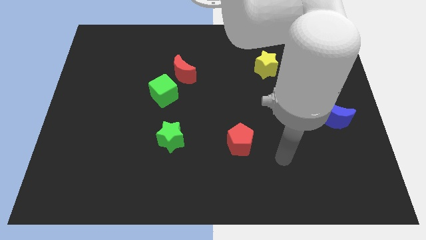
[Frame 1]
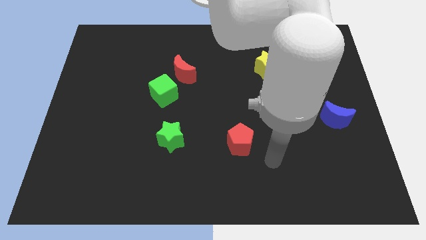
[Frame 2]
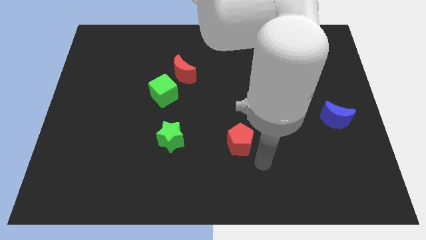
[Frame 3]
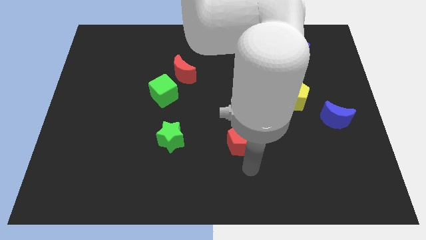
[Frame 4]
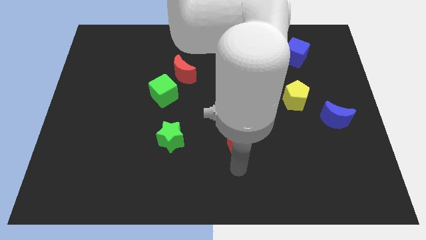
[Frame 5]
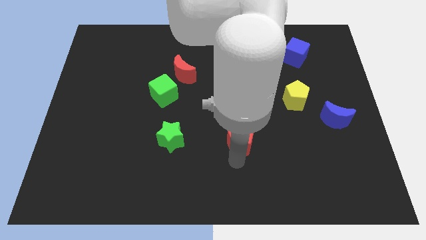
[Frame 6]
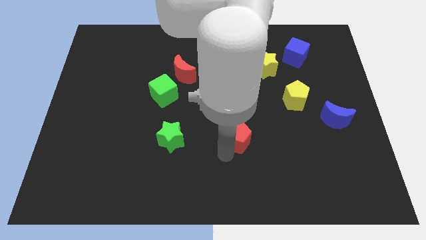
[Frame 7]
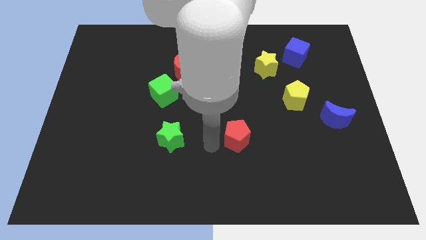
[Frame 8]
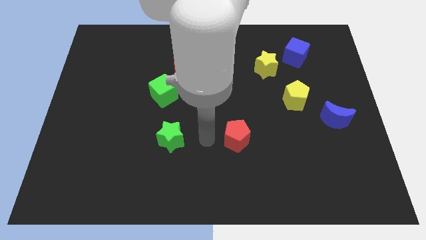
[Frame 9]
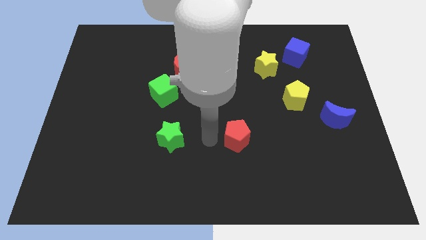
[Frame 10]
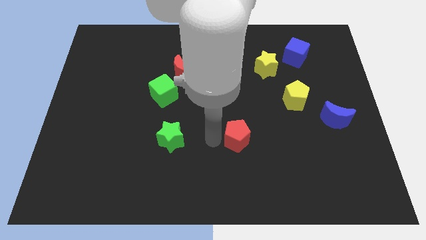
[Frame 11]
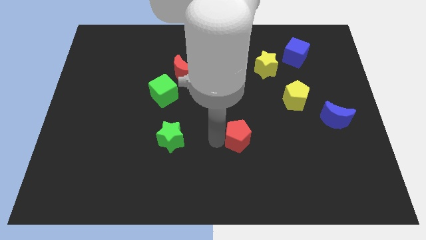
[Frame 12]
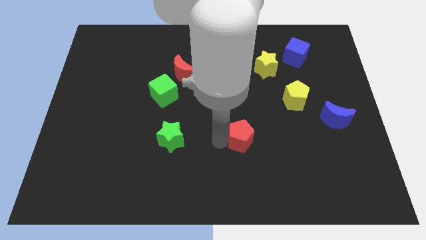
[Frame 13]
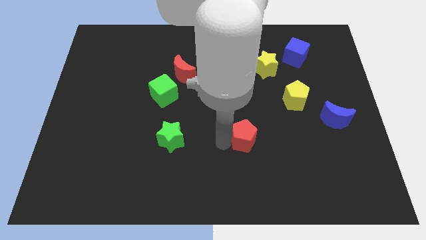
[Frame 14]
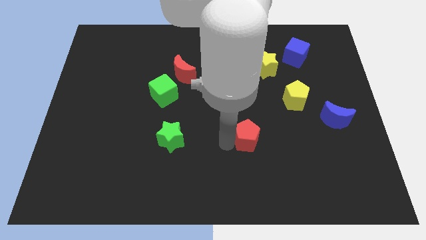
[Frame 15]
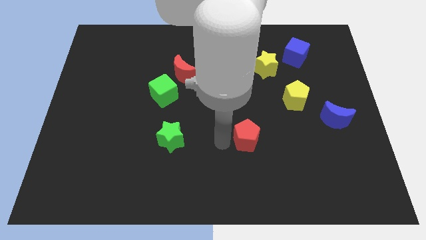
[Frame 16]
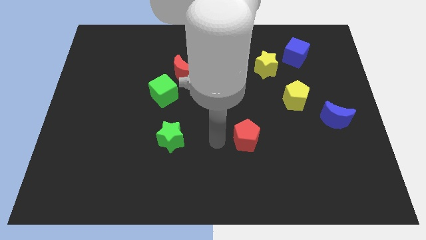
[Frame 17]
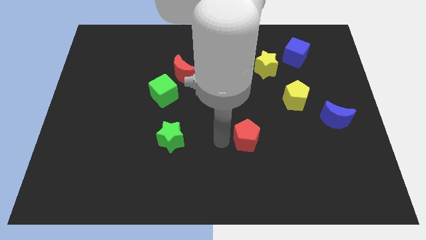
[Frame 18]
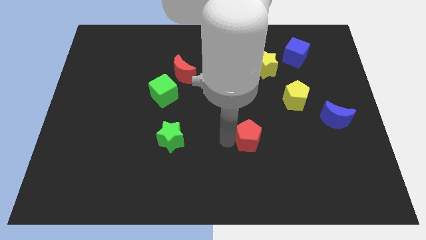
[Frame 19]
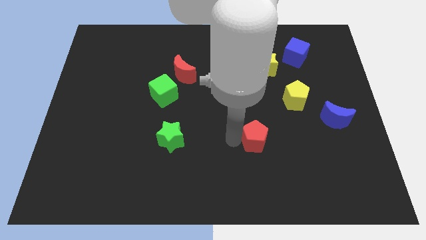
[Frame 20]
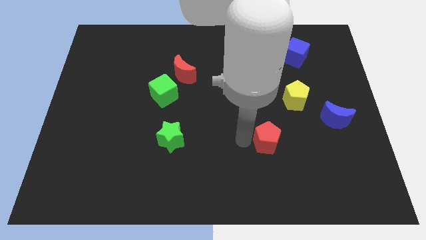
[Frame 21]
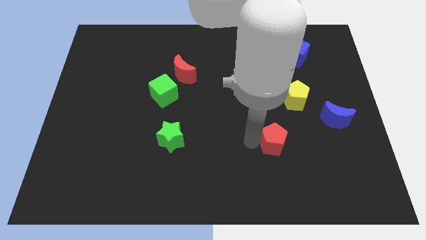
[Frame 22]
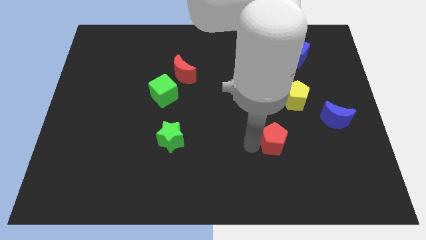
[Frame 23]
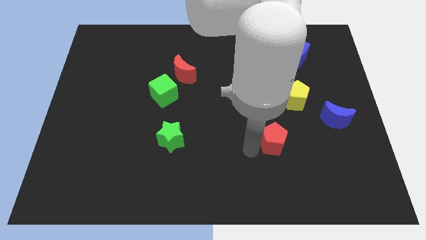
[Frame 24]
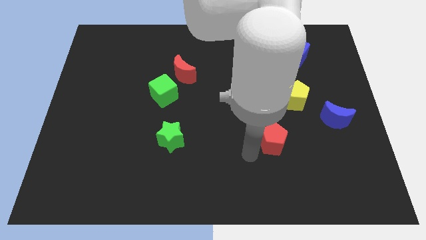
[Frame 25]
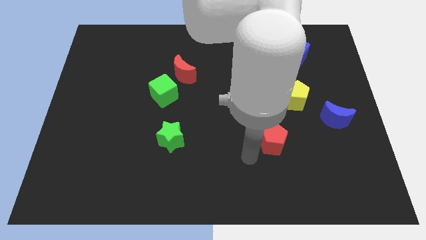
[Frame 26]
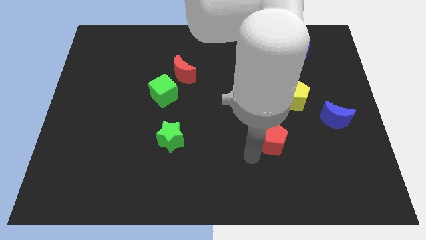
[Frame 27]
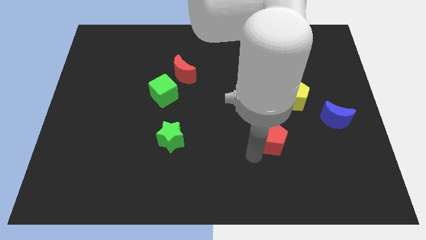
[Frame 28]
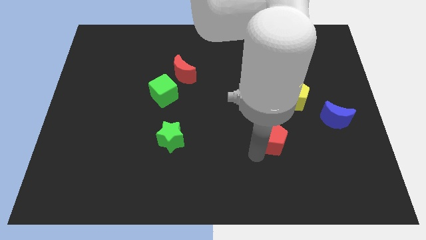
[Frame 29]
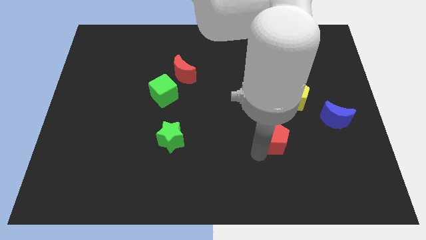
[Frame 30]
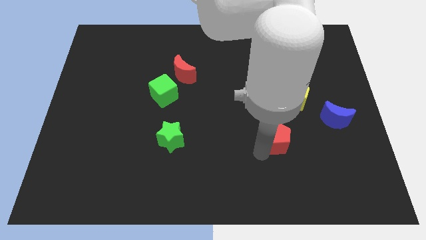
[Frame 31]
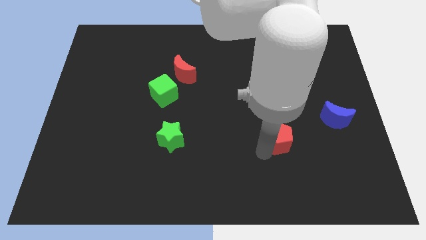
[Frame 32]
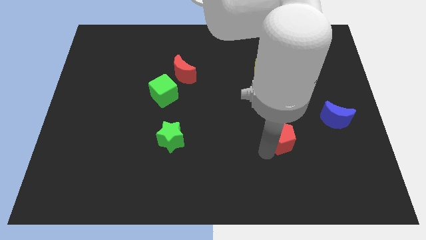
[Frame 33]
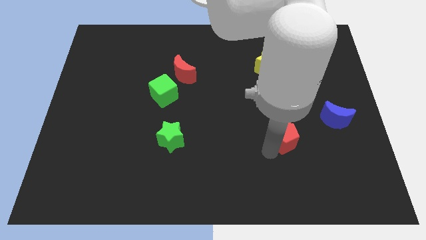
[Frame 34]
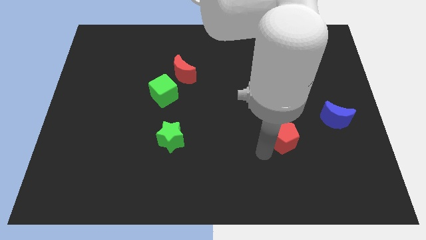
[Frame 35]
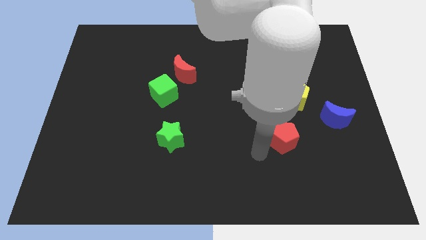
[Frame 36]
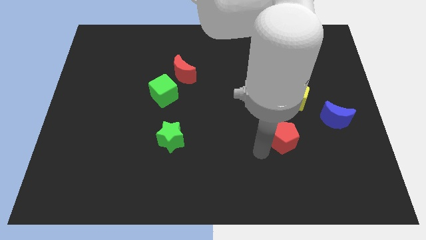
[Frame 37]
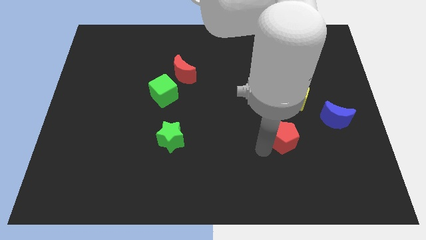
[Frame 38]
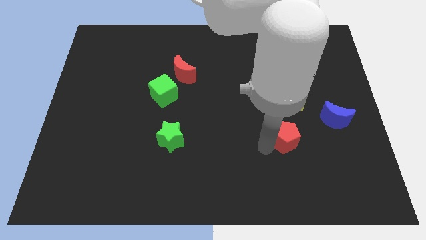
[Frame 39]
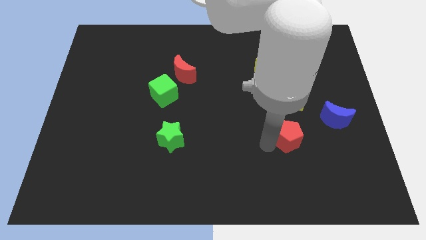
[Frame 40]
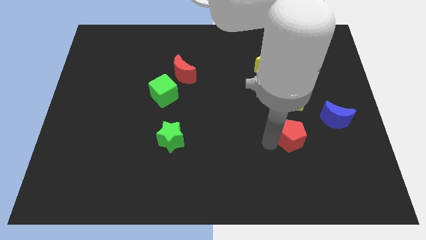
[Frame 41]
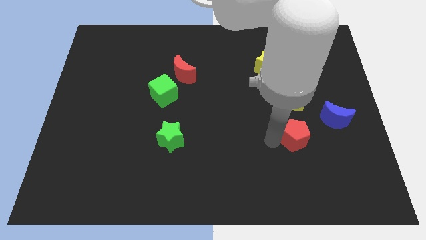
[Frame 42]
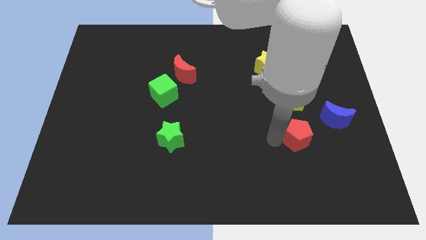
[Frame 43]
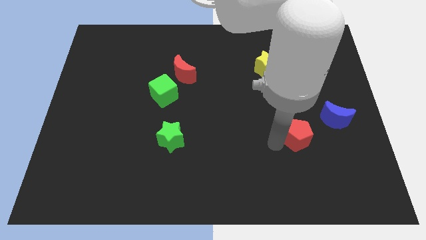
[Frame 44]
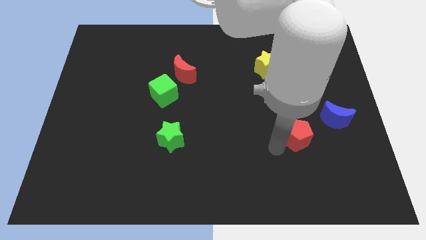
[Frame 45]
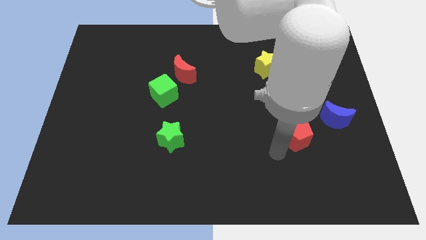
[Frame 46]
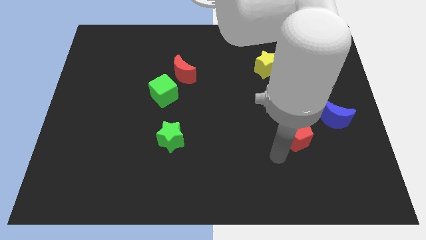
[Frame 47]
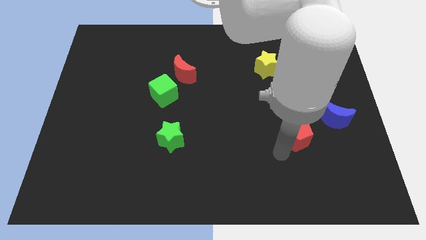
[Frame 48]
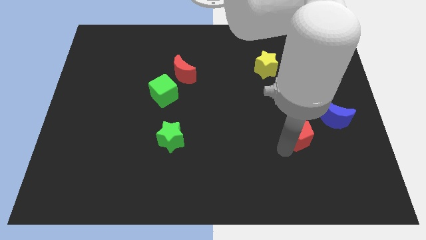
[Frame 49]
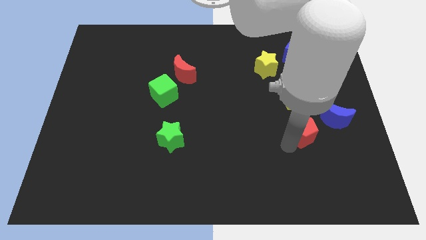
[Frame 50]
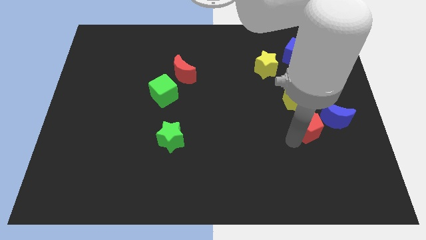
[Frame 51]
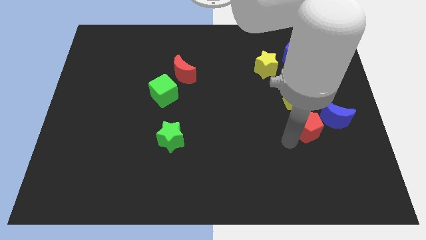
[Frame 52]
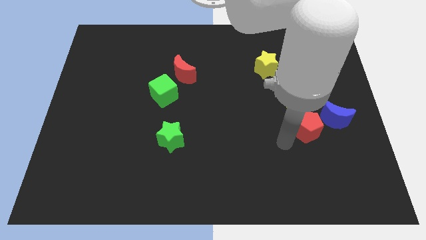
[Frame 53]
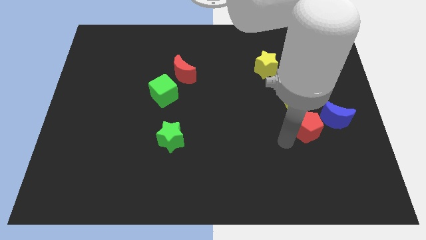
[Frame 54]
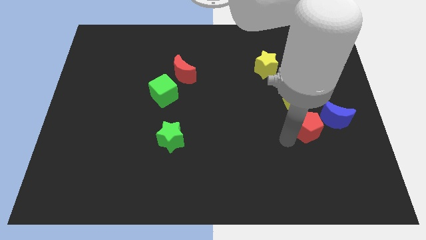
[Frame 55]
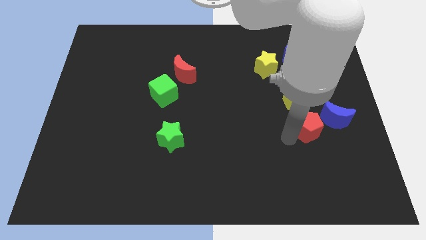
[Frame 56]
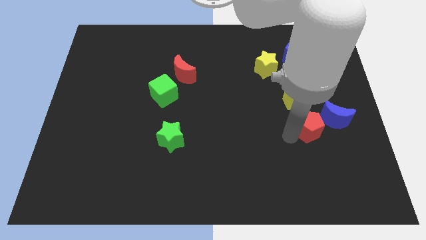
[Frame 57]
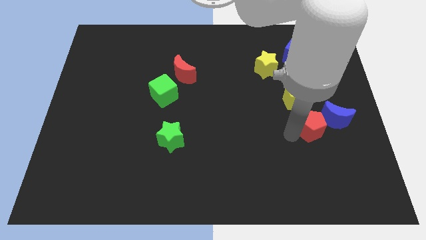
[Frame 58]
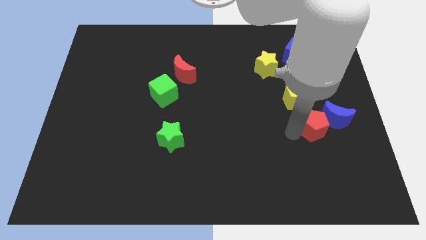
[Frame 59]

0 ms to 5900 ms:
slide the red pentagon close to the blue moon

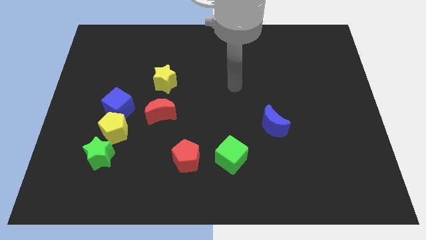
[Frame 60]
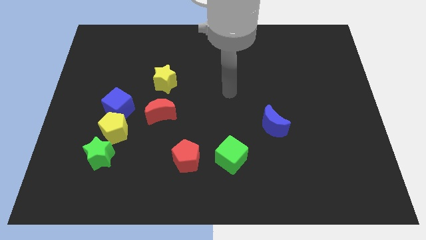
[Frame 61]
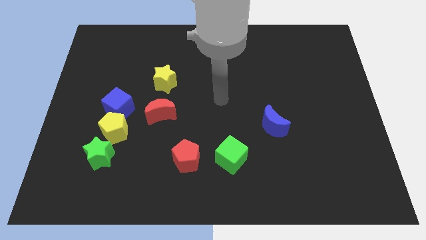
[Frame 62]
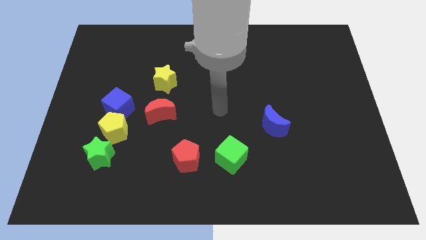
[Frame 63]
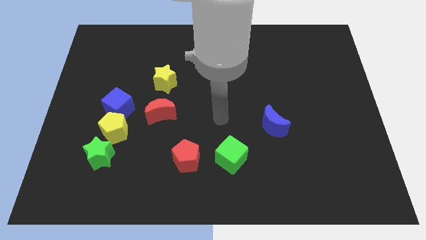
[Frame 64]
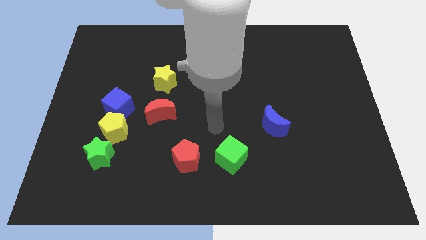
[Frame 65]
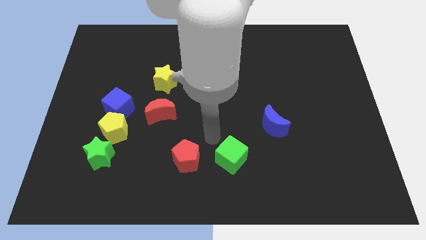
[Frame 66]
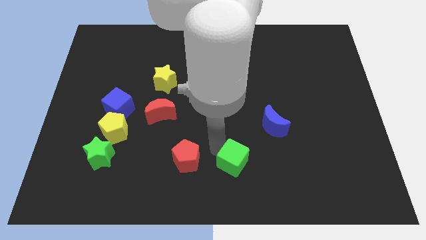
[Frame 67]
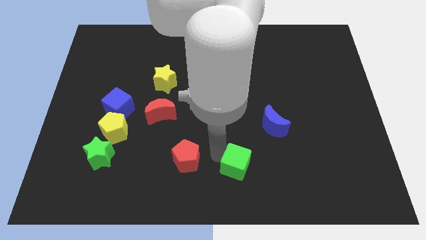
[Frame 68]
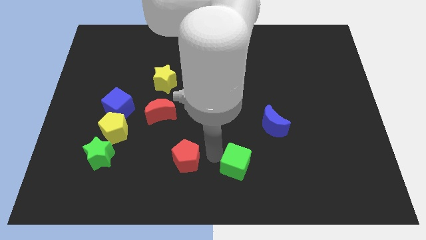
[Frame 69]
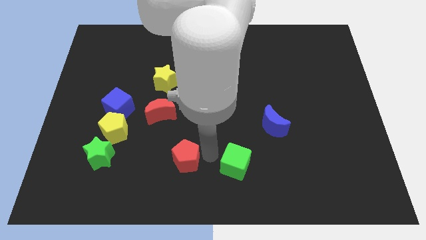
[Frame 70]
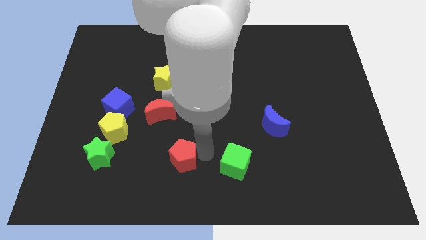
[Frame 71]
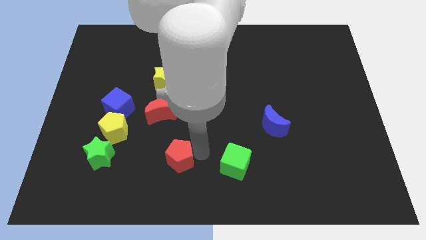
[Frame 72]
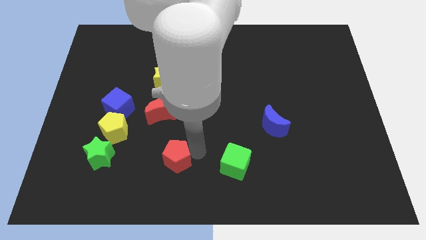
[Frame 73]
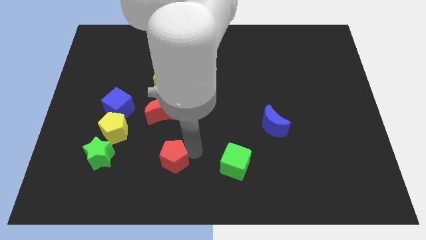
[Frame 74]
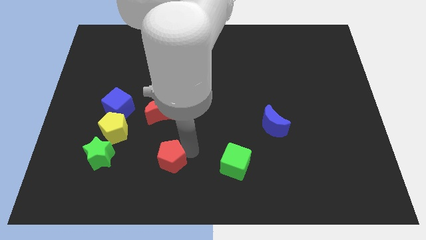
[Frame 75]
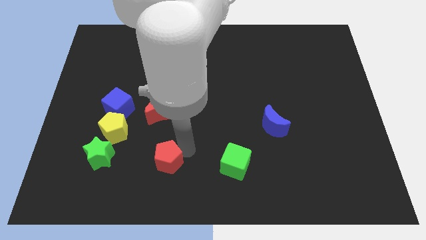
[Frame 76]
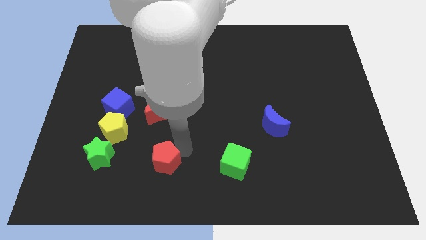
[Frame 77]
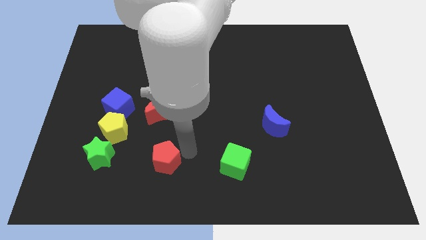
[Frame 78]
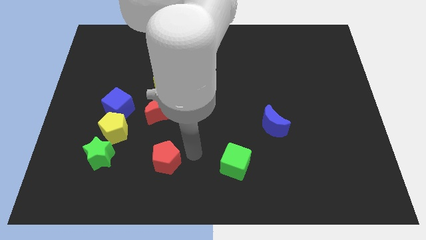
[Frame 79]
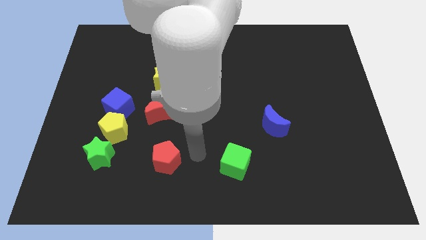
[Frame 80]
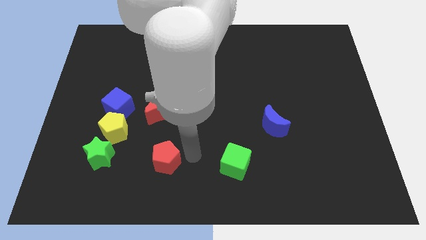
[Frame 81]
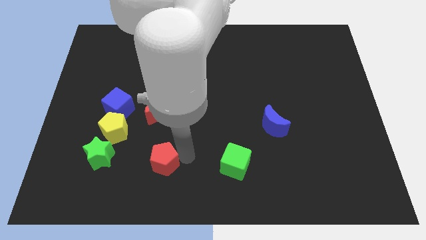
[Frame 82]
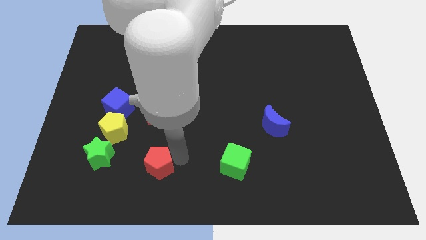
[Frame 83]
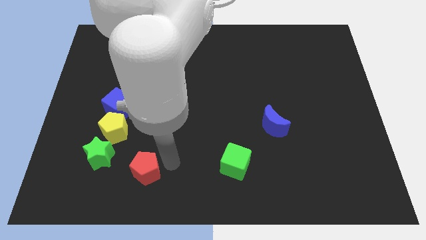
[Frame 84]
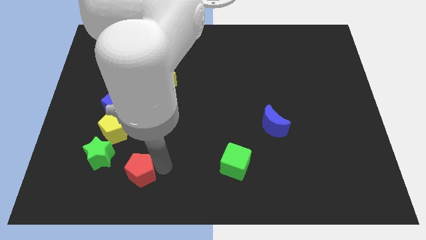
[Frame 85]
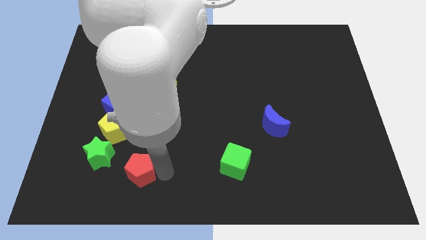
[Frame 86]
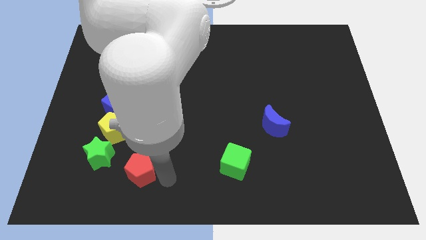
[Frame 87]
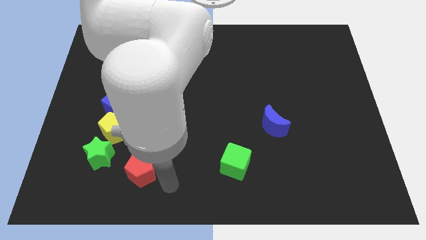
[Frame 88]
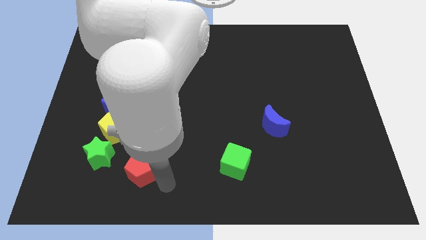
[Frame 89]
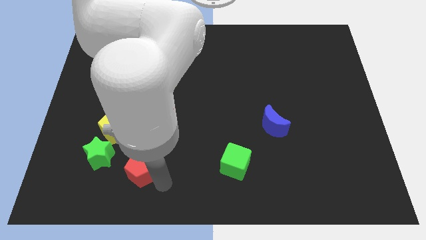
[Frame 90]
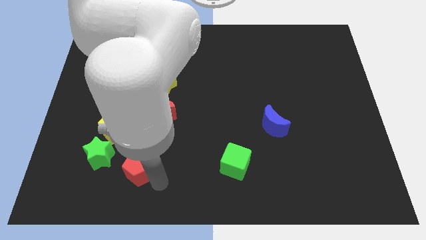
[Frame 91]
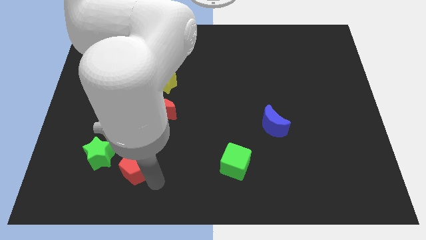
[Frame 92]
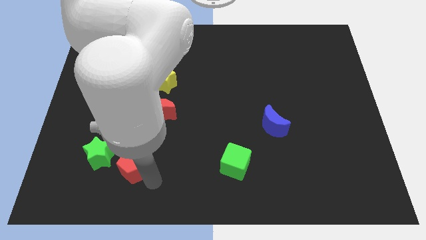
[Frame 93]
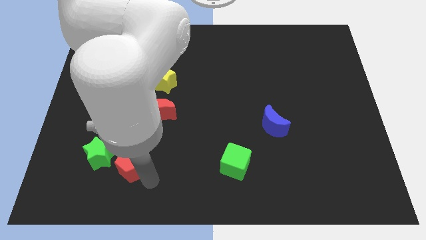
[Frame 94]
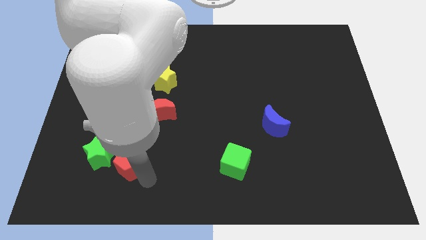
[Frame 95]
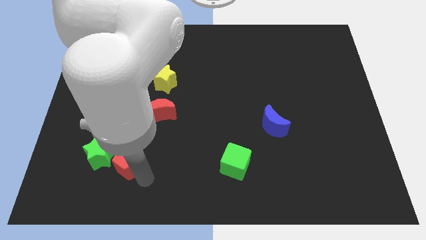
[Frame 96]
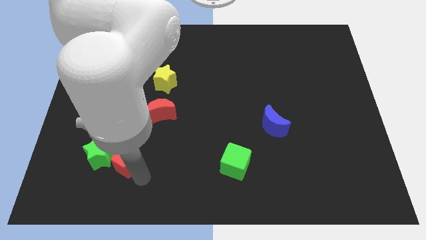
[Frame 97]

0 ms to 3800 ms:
put the red pentagon towards the green star
